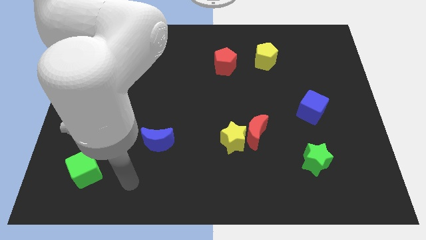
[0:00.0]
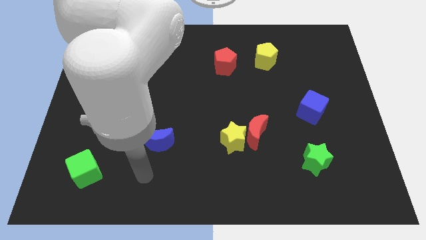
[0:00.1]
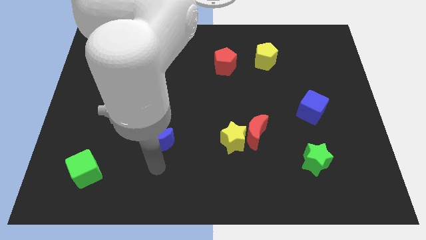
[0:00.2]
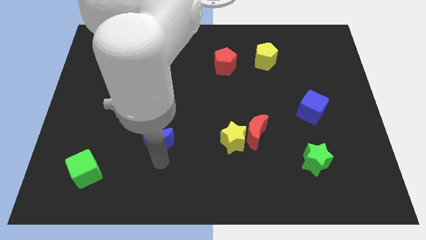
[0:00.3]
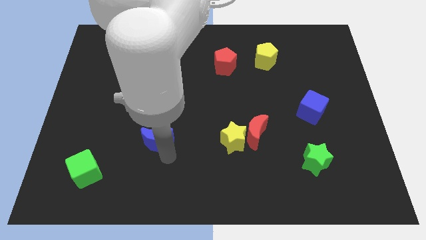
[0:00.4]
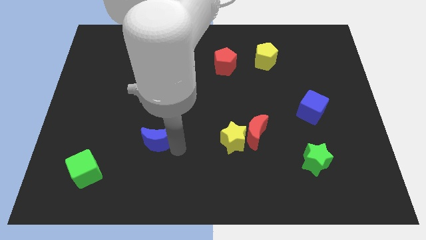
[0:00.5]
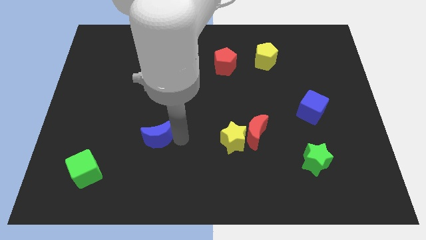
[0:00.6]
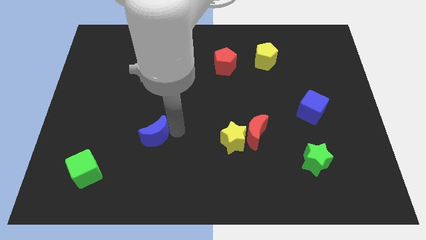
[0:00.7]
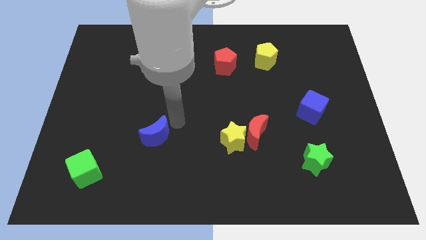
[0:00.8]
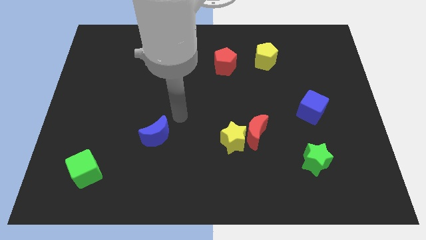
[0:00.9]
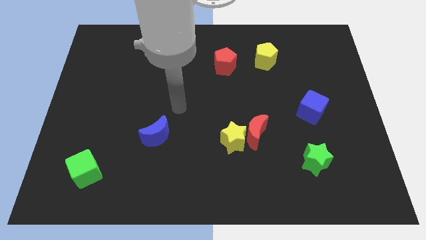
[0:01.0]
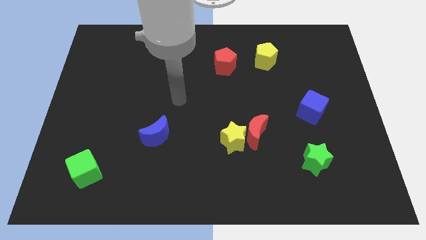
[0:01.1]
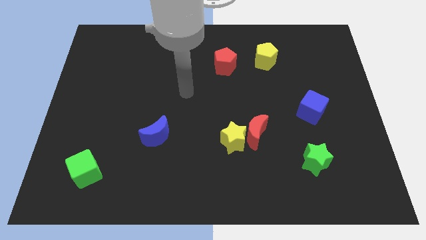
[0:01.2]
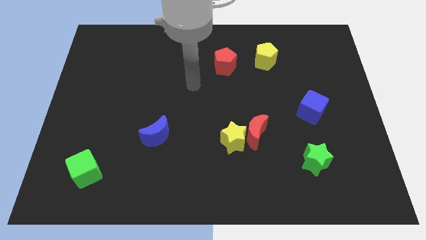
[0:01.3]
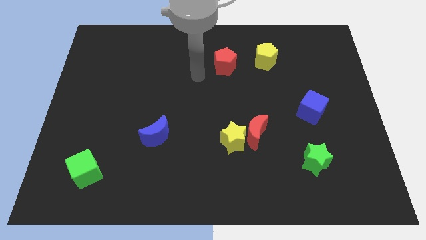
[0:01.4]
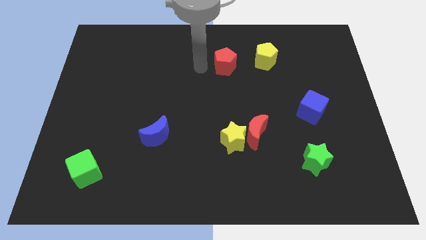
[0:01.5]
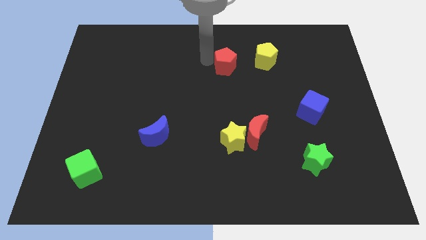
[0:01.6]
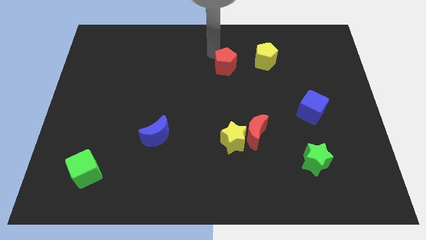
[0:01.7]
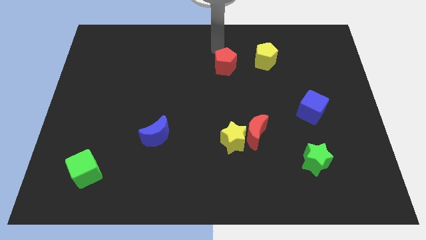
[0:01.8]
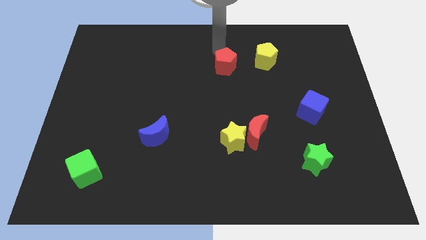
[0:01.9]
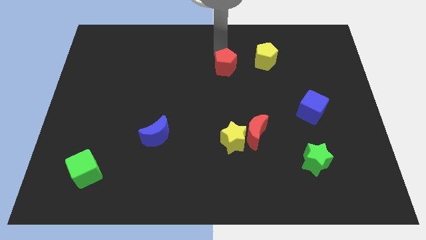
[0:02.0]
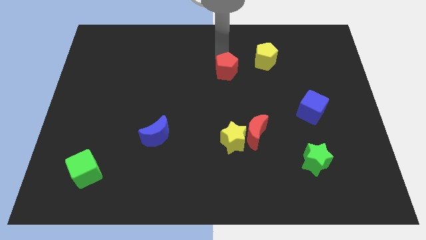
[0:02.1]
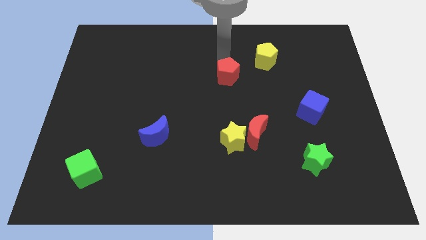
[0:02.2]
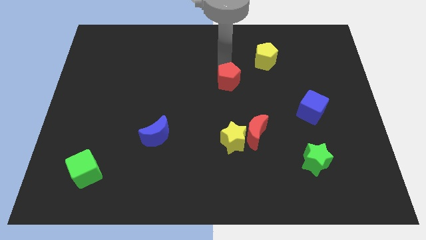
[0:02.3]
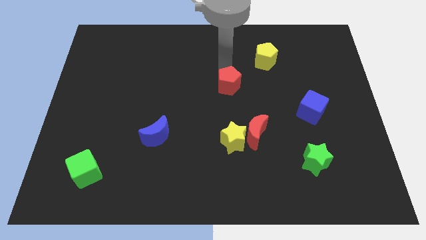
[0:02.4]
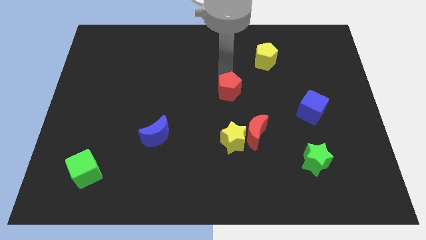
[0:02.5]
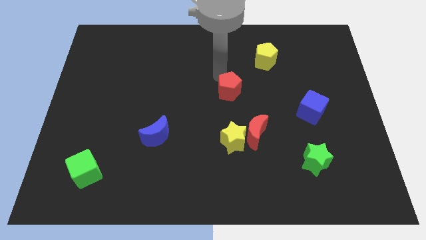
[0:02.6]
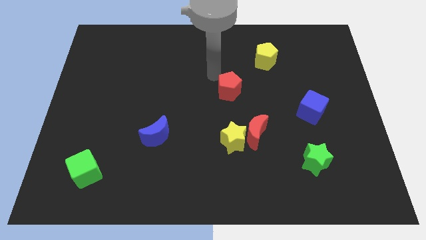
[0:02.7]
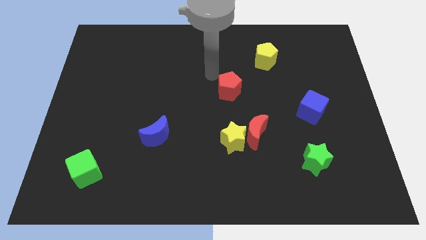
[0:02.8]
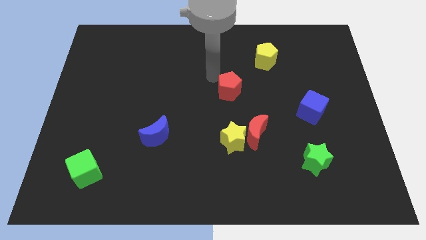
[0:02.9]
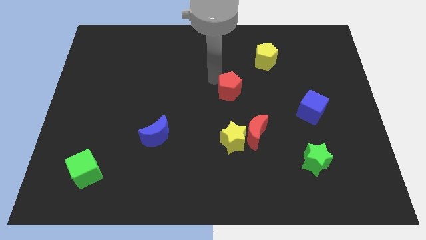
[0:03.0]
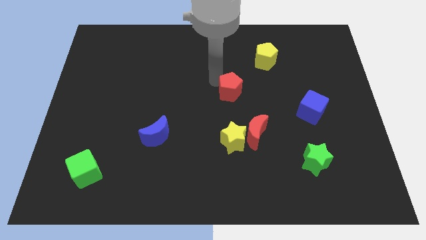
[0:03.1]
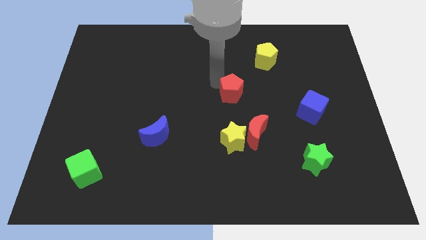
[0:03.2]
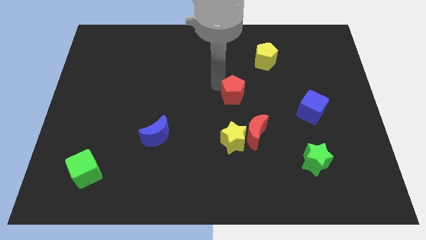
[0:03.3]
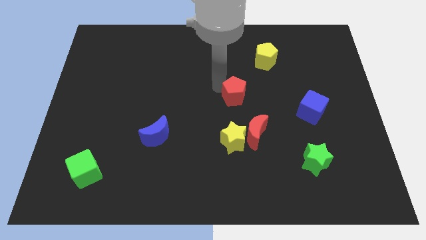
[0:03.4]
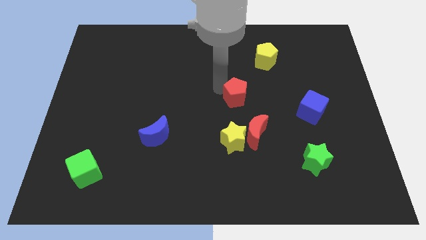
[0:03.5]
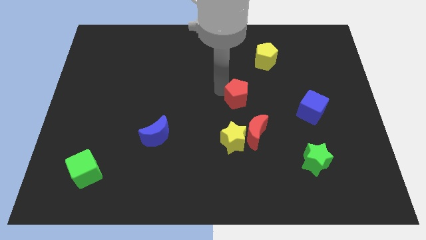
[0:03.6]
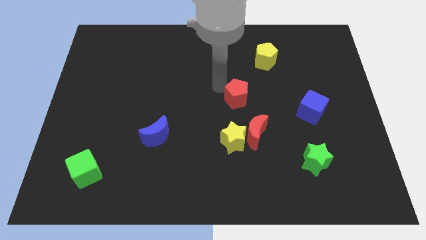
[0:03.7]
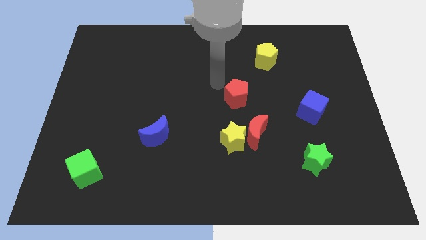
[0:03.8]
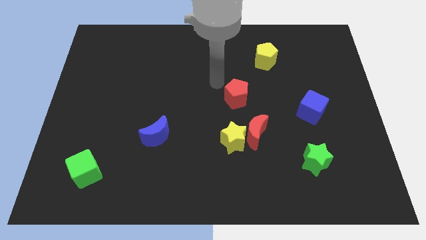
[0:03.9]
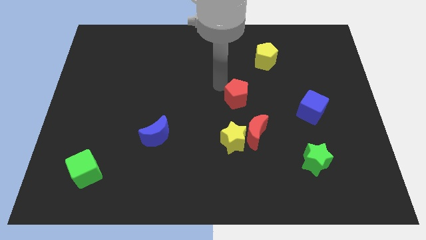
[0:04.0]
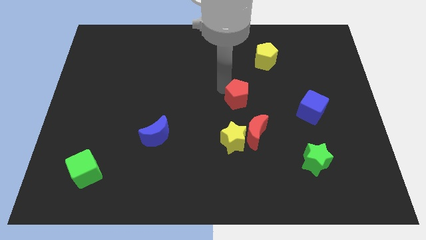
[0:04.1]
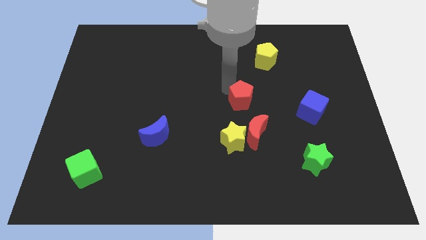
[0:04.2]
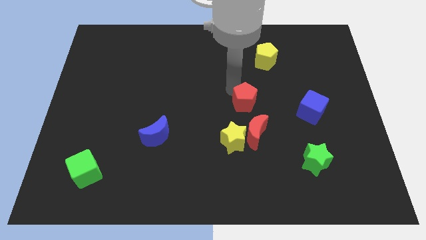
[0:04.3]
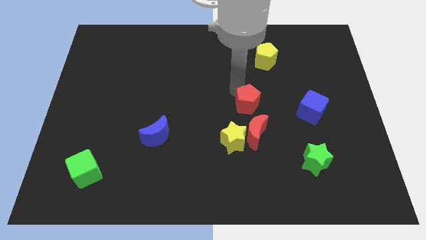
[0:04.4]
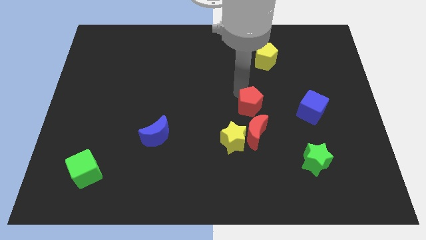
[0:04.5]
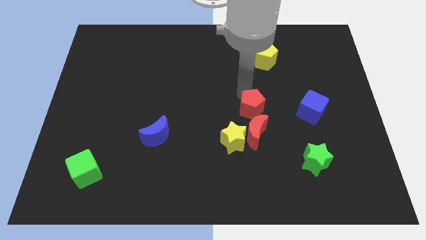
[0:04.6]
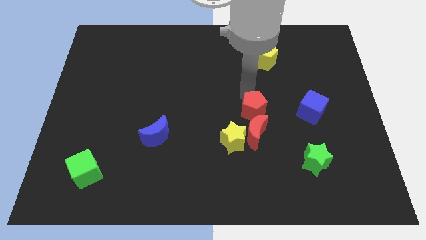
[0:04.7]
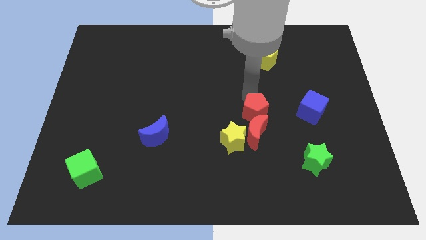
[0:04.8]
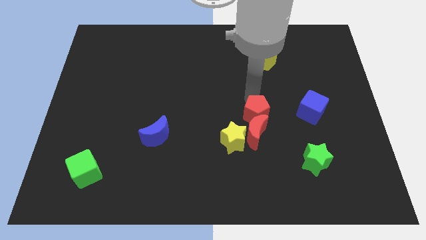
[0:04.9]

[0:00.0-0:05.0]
slide the red pentagon next to the red moon

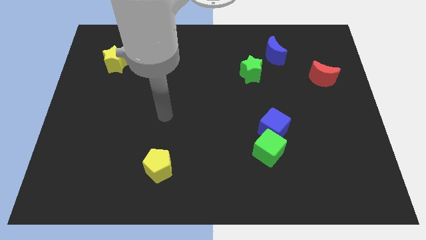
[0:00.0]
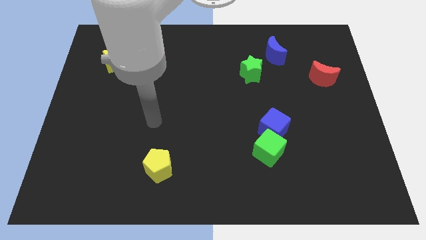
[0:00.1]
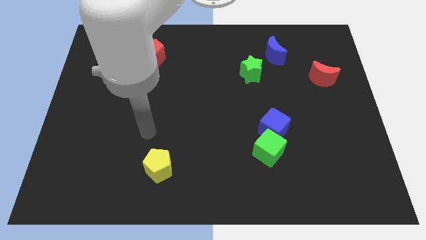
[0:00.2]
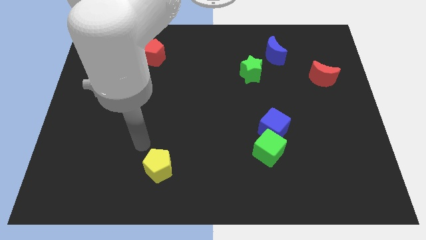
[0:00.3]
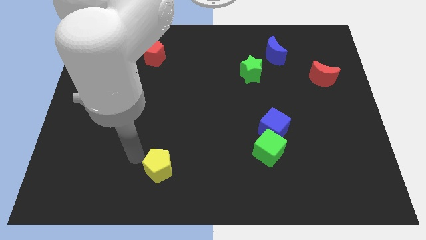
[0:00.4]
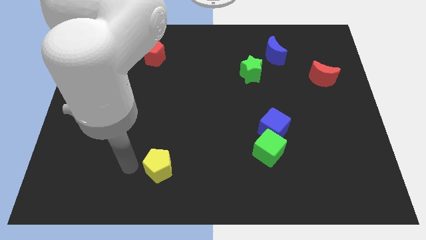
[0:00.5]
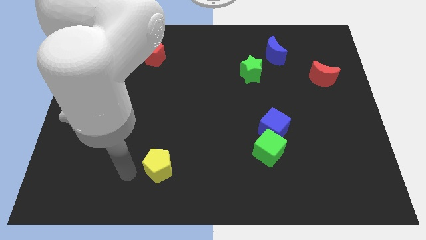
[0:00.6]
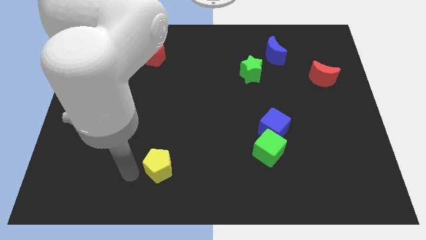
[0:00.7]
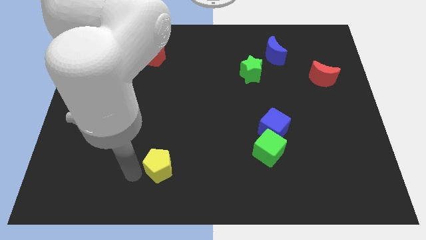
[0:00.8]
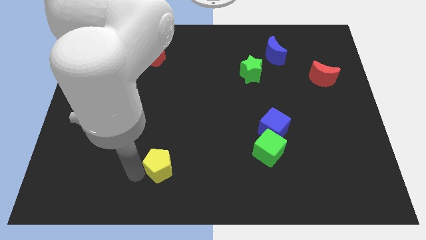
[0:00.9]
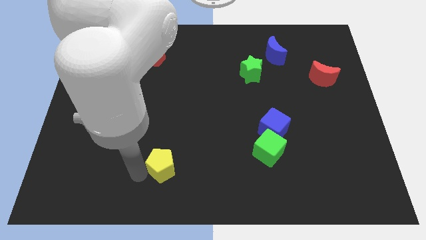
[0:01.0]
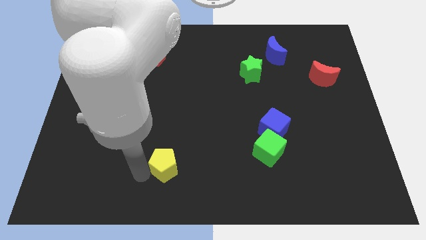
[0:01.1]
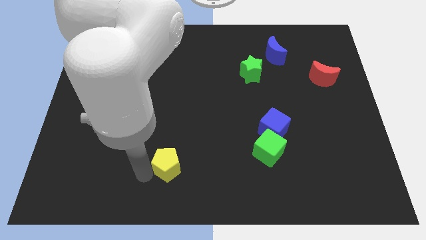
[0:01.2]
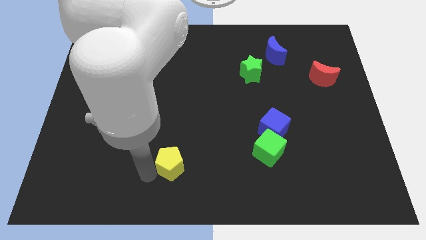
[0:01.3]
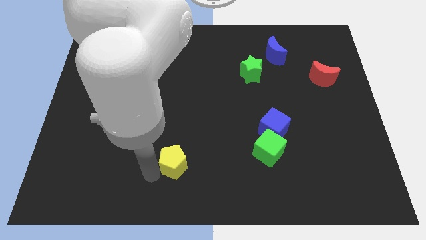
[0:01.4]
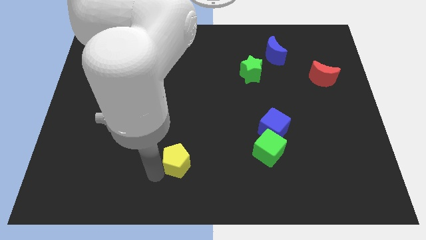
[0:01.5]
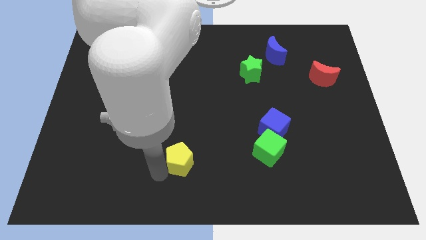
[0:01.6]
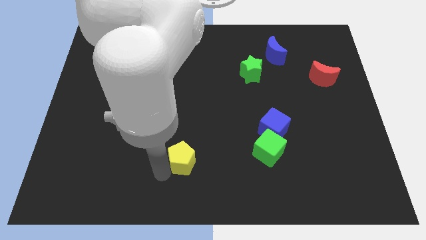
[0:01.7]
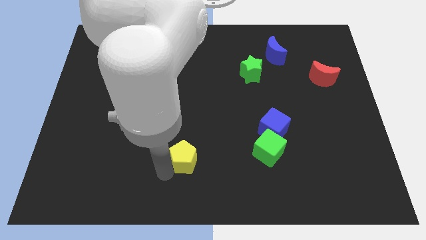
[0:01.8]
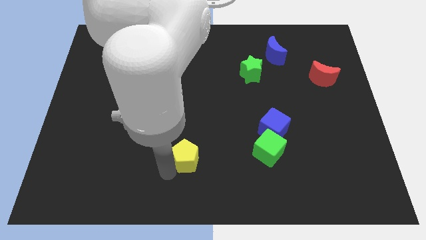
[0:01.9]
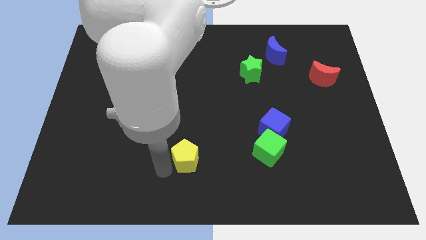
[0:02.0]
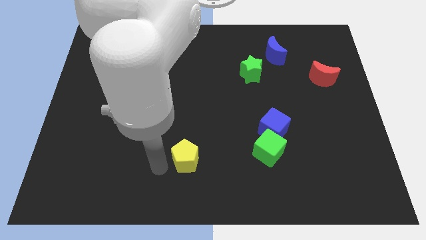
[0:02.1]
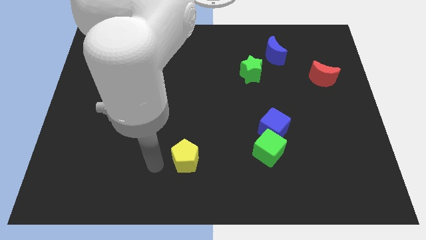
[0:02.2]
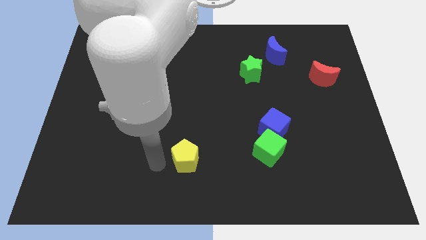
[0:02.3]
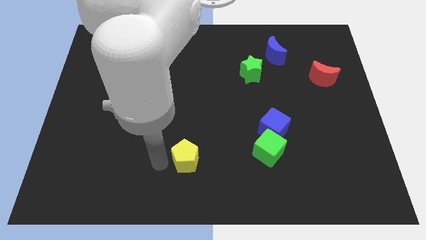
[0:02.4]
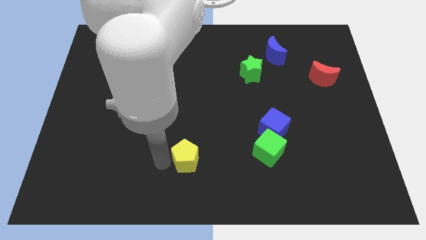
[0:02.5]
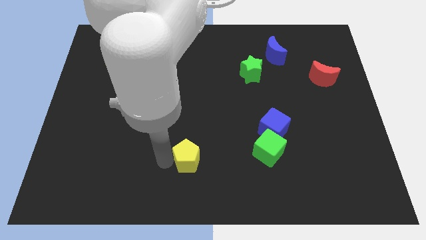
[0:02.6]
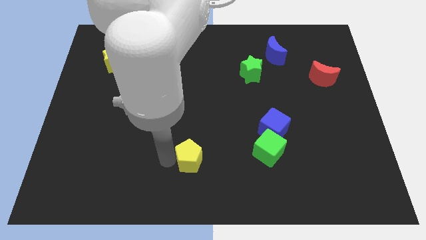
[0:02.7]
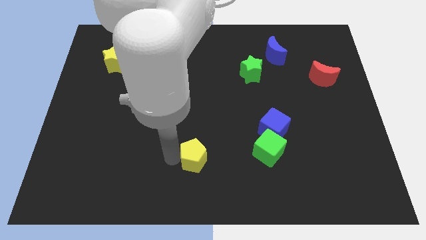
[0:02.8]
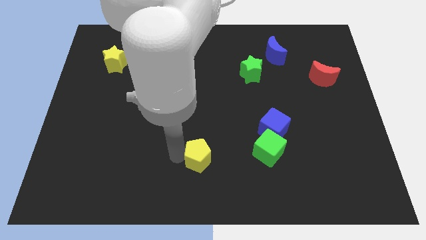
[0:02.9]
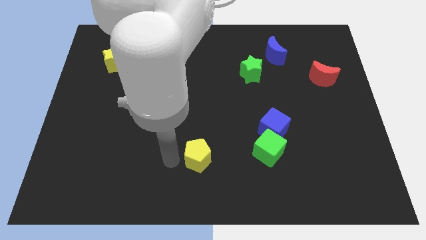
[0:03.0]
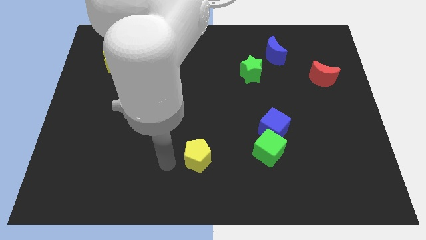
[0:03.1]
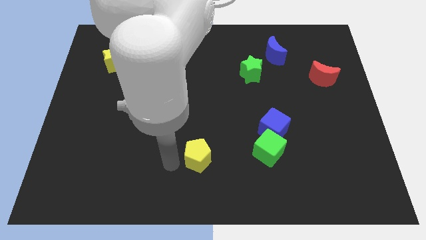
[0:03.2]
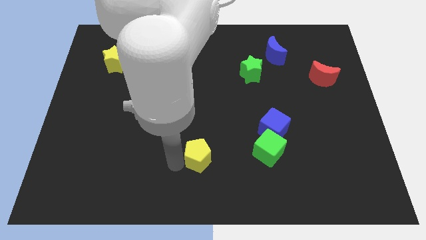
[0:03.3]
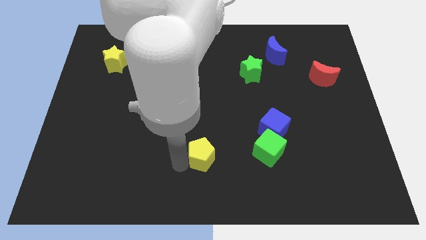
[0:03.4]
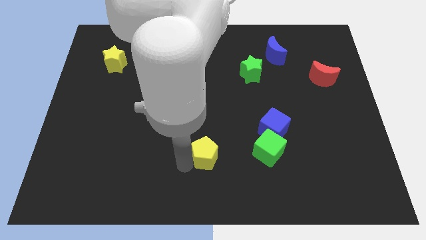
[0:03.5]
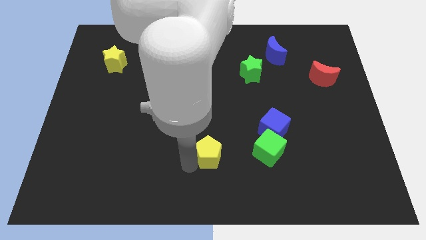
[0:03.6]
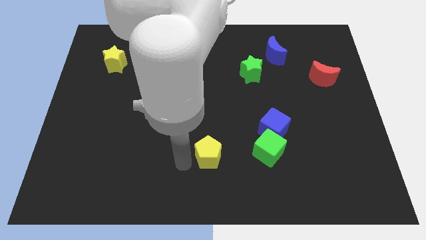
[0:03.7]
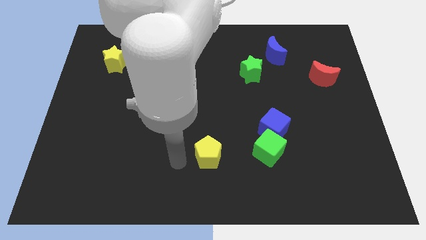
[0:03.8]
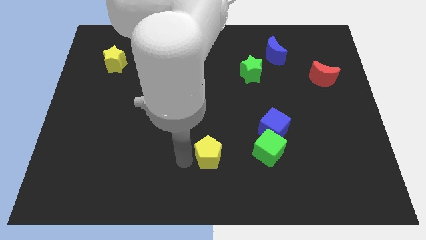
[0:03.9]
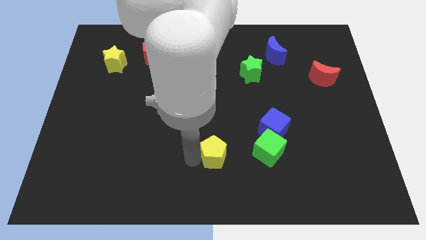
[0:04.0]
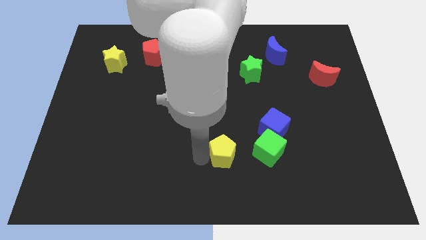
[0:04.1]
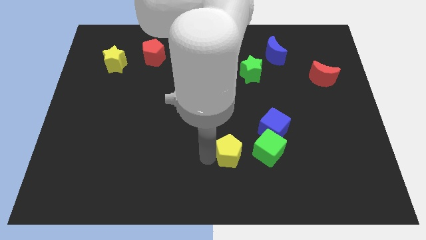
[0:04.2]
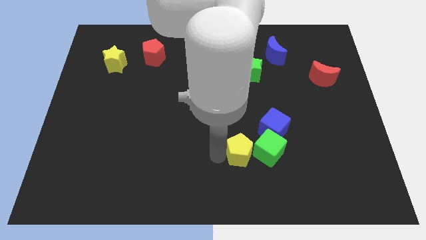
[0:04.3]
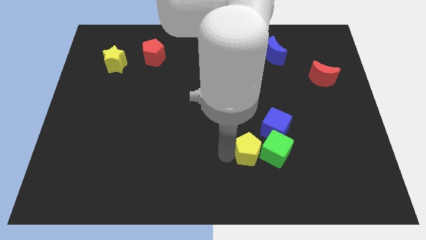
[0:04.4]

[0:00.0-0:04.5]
put the yellow pentagon towards the green cube
